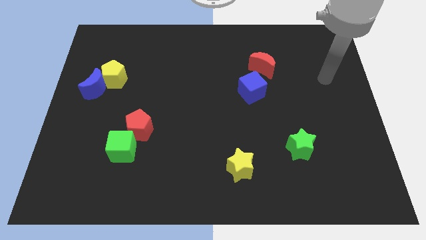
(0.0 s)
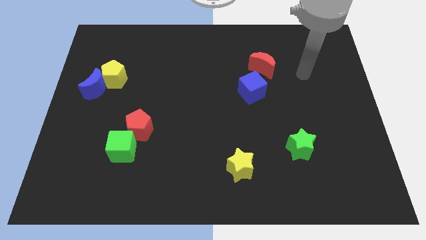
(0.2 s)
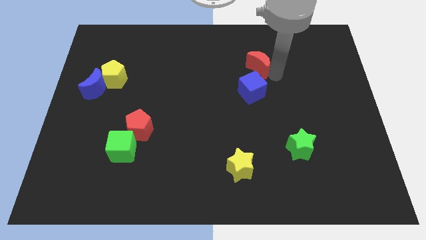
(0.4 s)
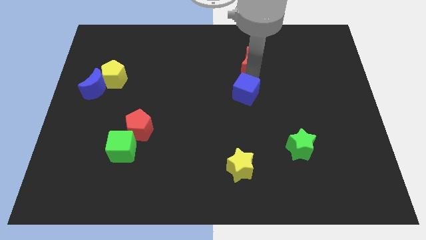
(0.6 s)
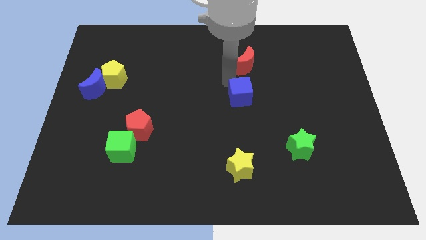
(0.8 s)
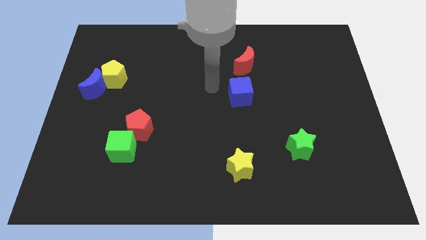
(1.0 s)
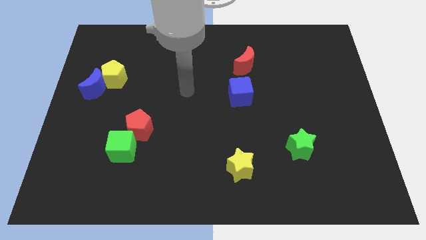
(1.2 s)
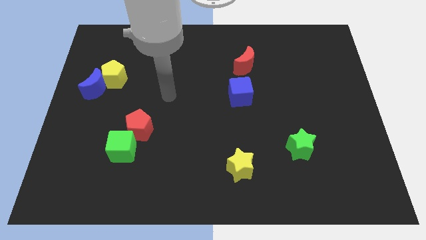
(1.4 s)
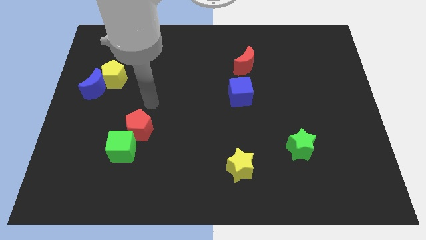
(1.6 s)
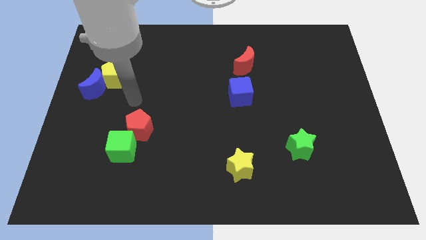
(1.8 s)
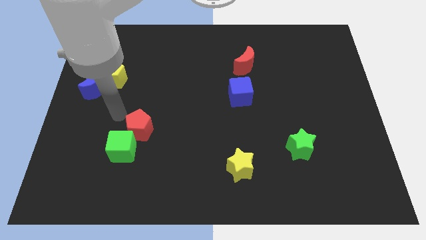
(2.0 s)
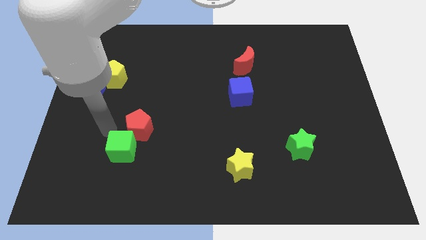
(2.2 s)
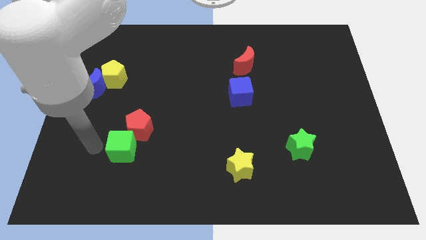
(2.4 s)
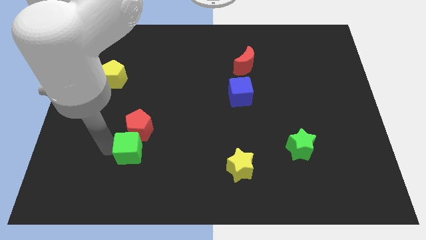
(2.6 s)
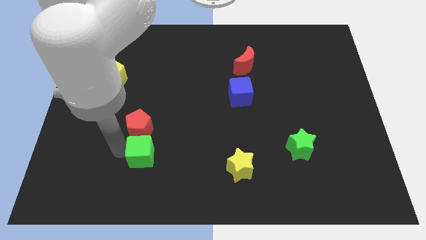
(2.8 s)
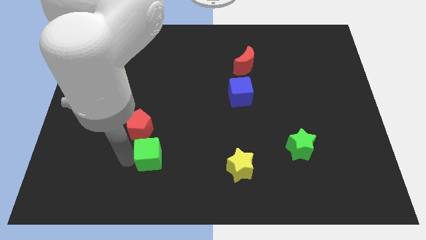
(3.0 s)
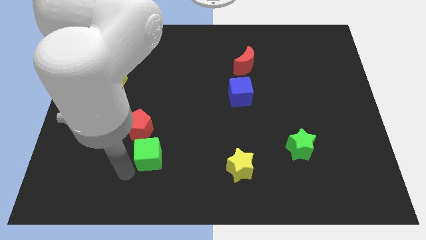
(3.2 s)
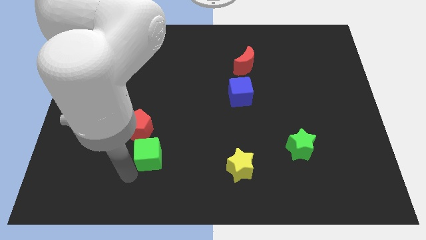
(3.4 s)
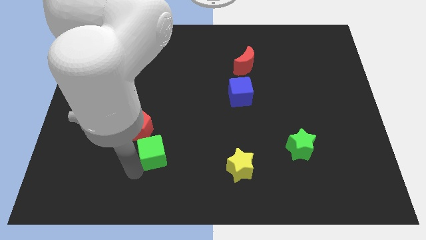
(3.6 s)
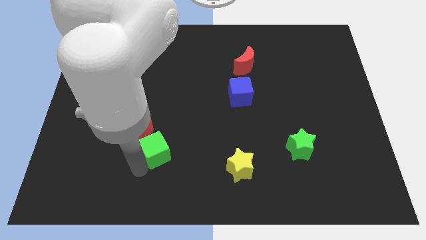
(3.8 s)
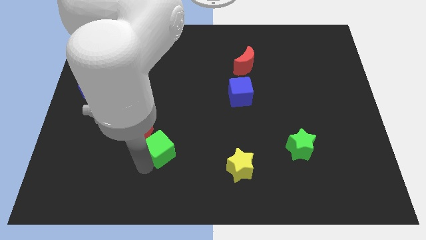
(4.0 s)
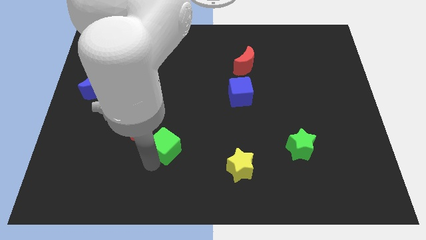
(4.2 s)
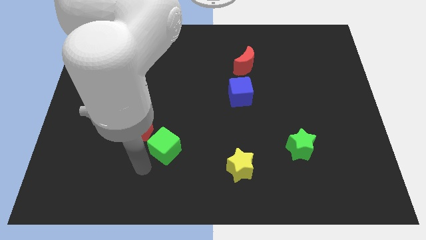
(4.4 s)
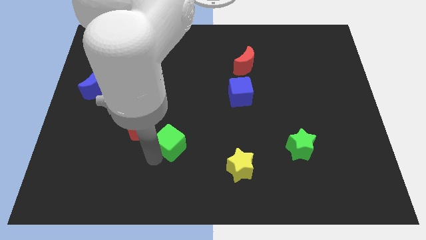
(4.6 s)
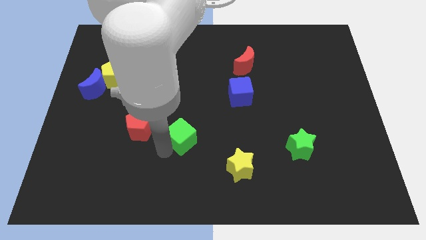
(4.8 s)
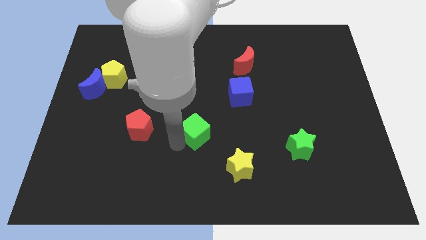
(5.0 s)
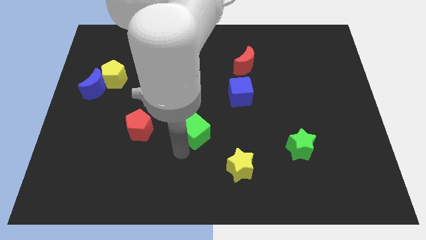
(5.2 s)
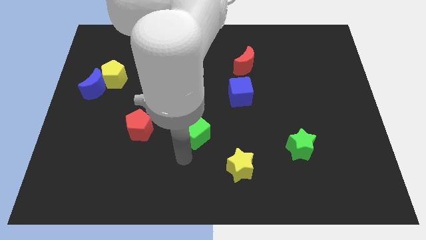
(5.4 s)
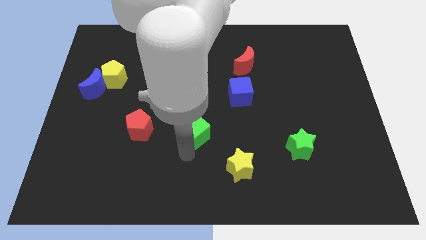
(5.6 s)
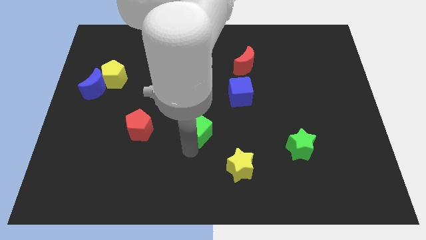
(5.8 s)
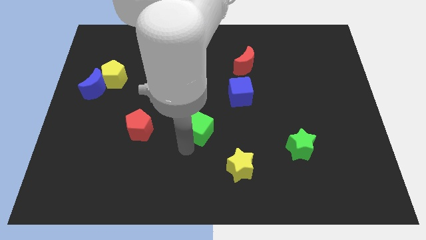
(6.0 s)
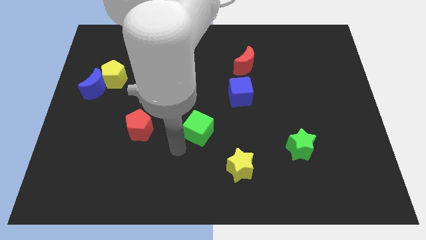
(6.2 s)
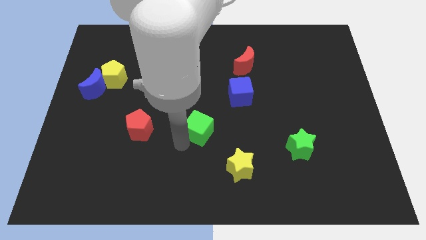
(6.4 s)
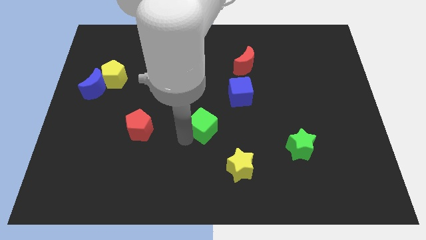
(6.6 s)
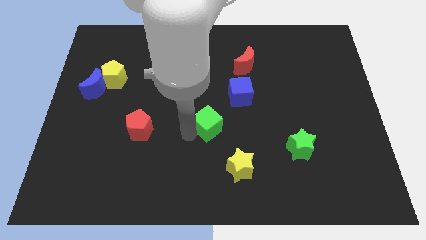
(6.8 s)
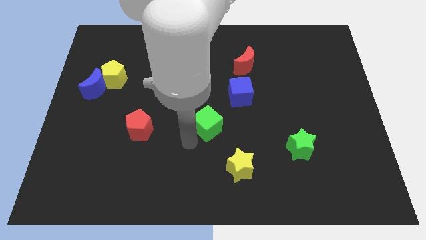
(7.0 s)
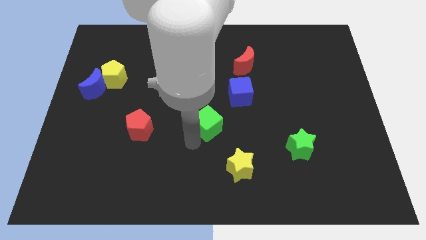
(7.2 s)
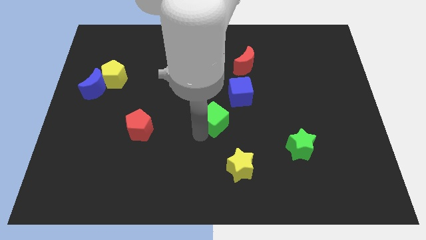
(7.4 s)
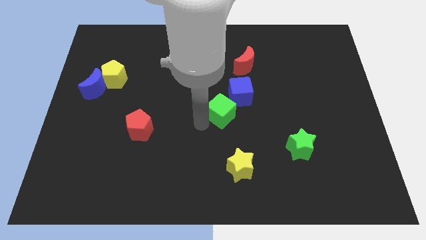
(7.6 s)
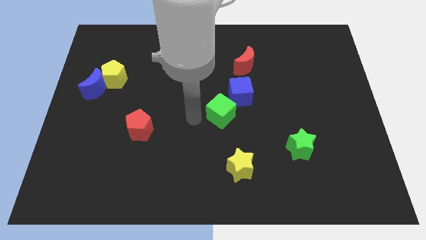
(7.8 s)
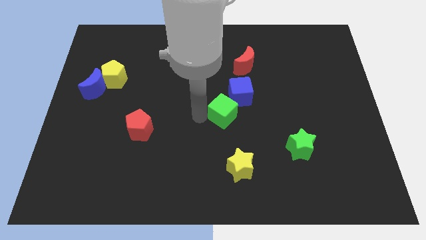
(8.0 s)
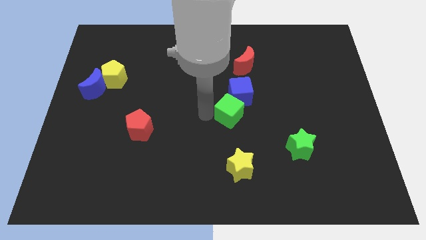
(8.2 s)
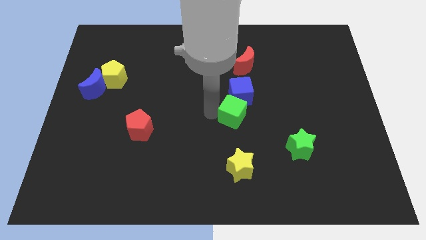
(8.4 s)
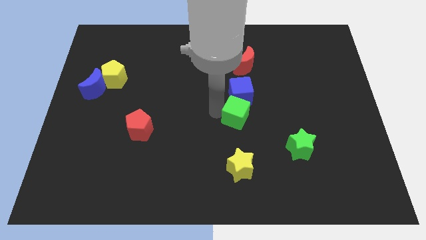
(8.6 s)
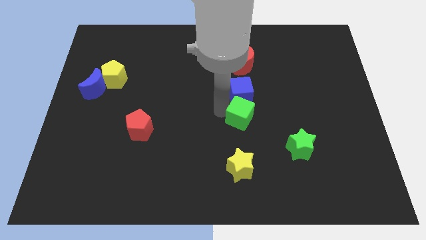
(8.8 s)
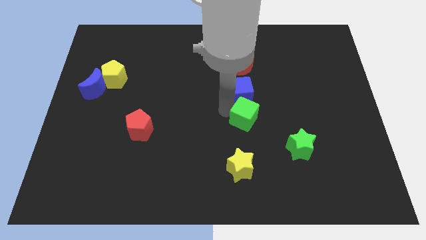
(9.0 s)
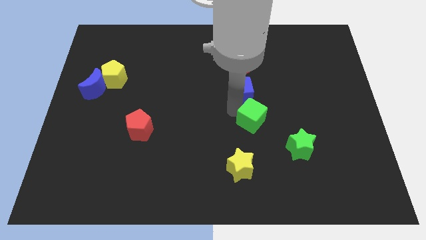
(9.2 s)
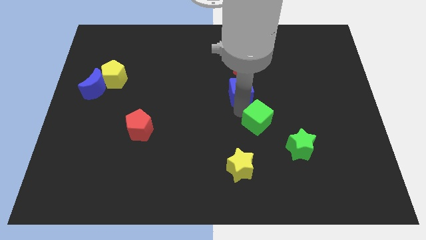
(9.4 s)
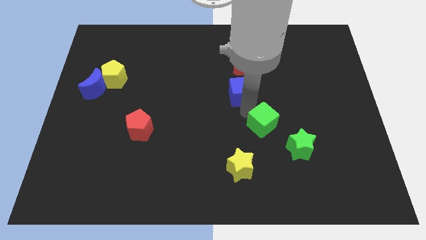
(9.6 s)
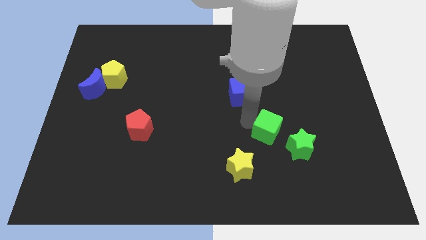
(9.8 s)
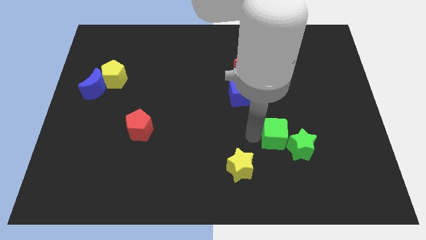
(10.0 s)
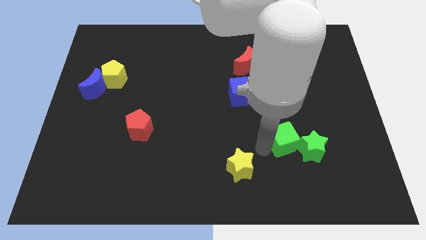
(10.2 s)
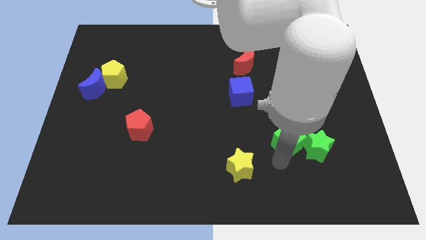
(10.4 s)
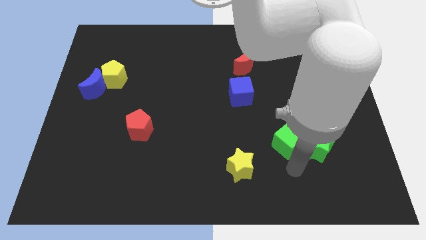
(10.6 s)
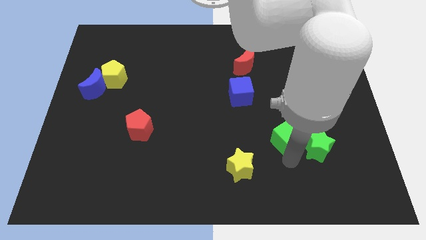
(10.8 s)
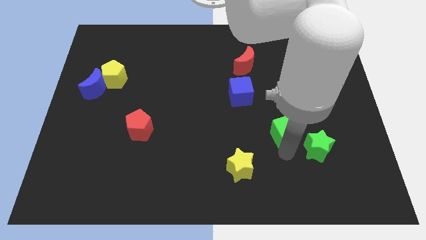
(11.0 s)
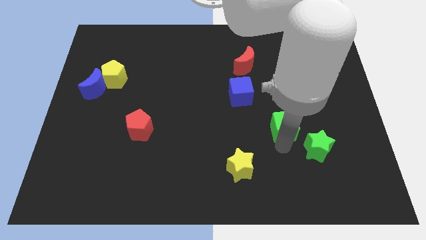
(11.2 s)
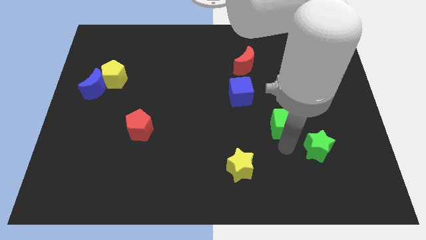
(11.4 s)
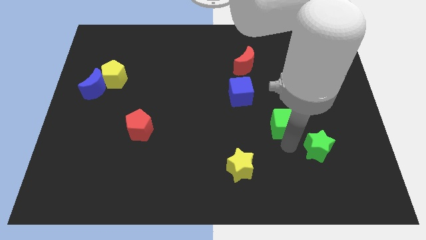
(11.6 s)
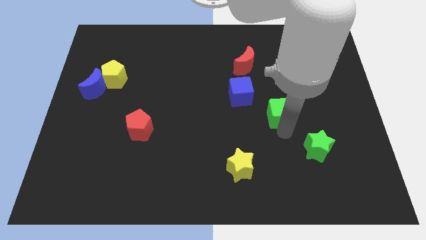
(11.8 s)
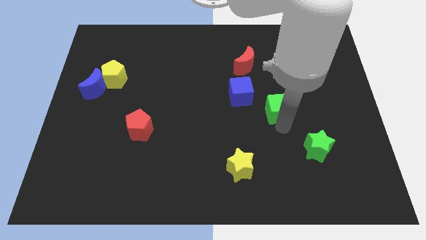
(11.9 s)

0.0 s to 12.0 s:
slide the green cube just right of the blue cube
